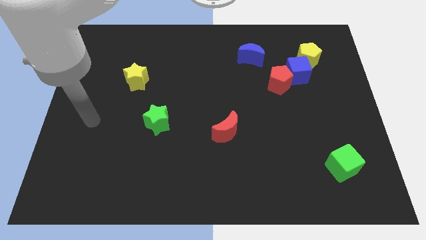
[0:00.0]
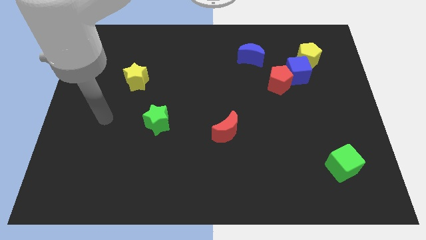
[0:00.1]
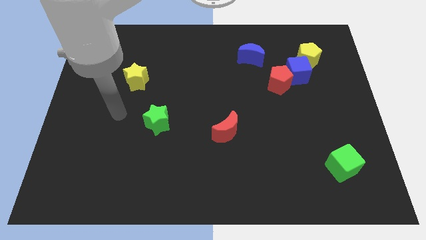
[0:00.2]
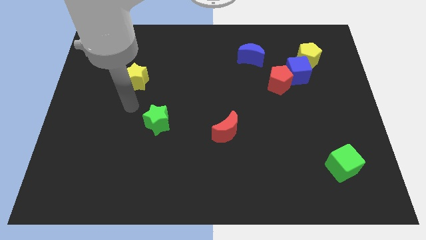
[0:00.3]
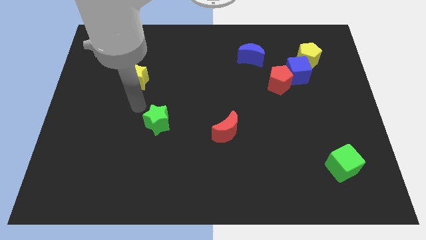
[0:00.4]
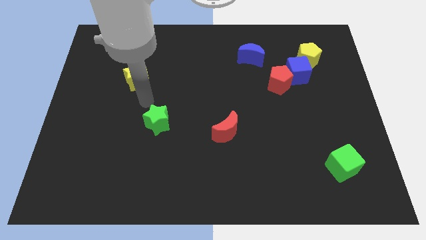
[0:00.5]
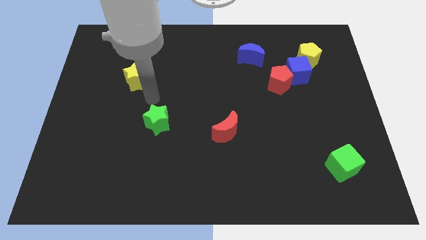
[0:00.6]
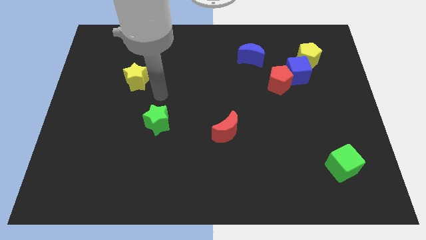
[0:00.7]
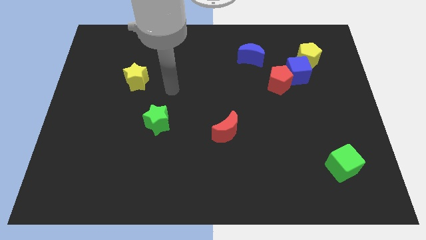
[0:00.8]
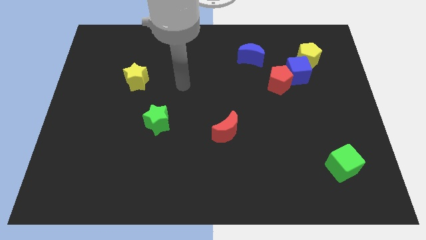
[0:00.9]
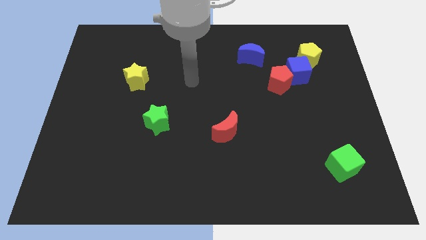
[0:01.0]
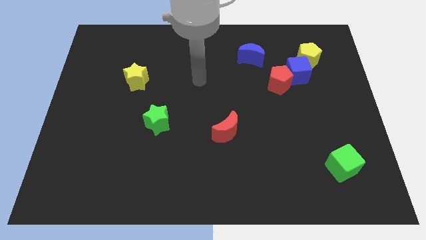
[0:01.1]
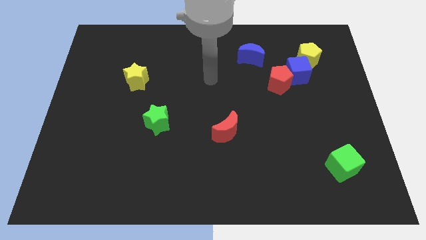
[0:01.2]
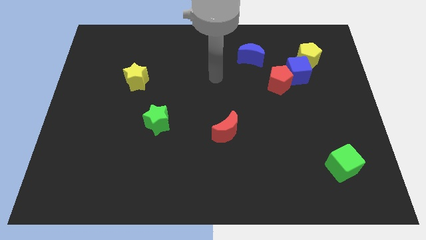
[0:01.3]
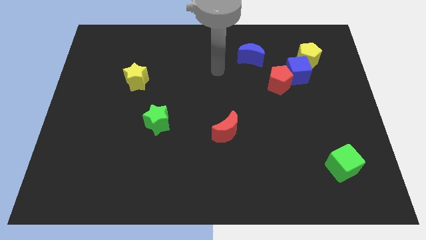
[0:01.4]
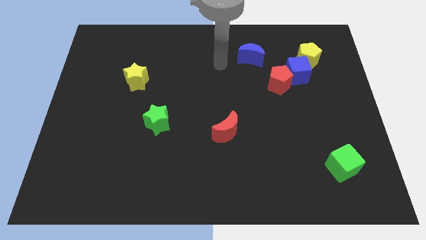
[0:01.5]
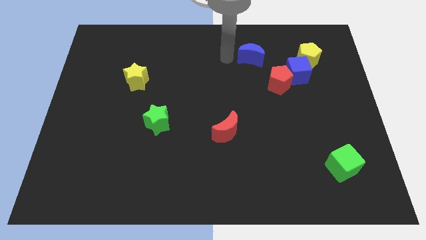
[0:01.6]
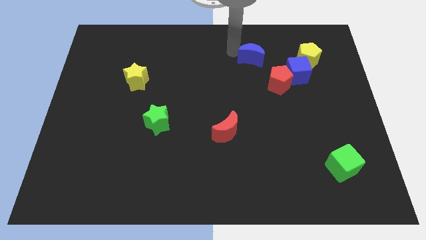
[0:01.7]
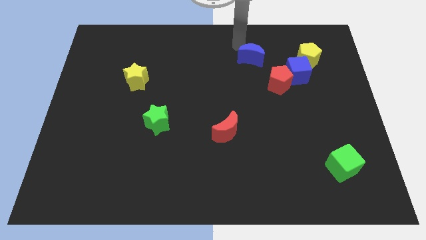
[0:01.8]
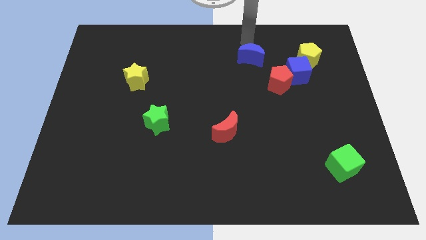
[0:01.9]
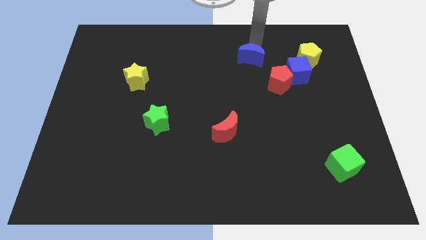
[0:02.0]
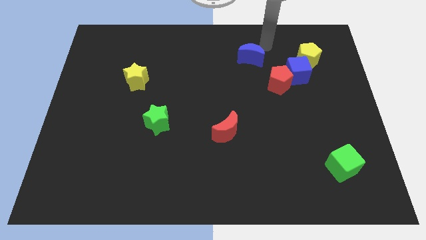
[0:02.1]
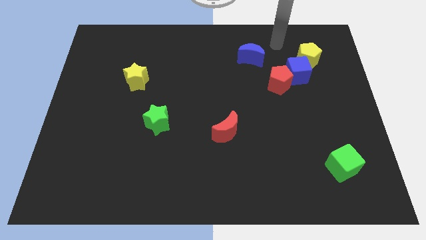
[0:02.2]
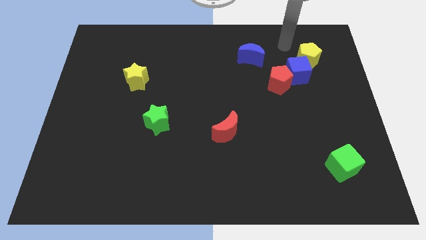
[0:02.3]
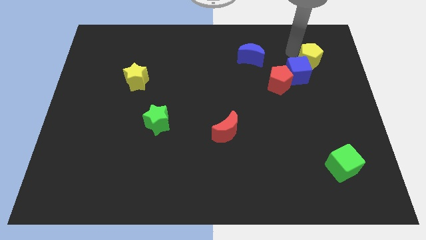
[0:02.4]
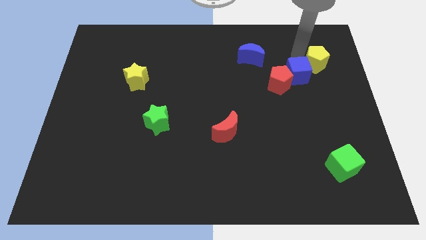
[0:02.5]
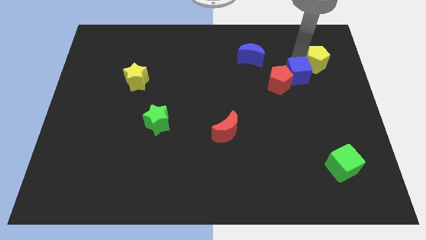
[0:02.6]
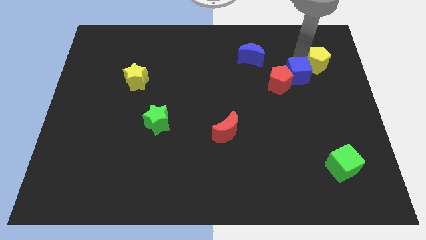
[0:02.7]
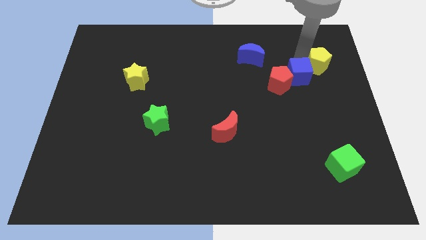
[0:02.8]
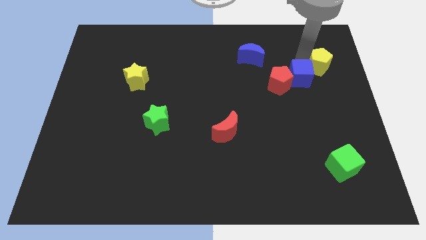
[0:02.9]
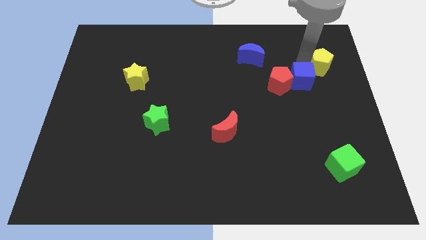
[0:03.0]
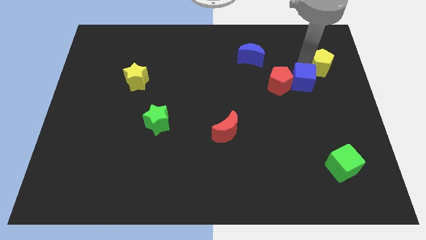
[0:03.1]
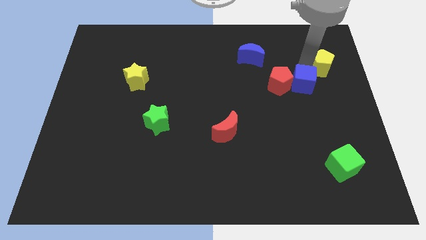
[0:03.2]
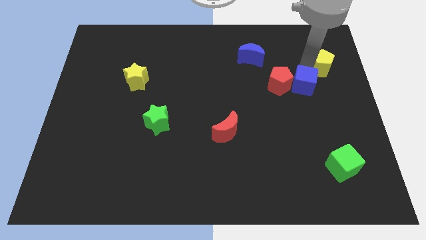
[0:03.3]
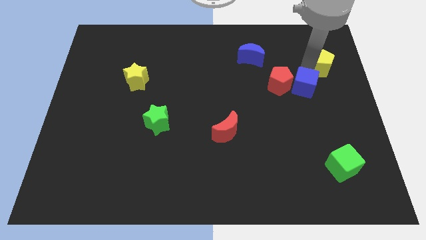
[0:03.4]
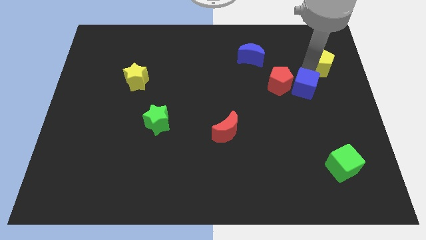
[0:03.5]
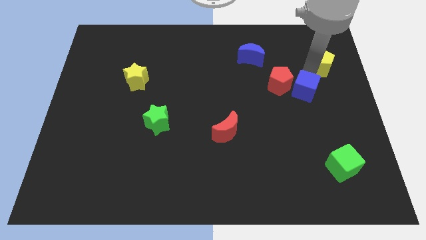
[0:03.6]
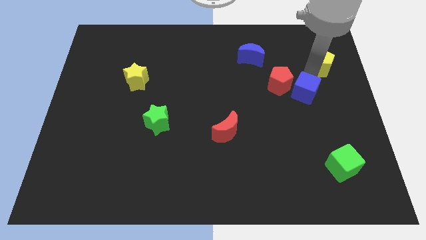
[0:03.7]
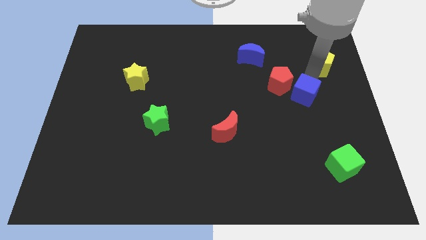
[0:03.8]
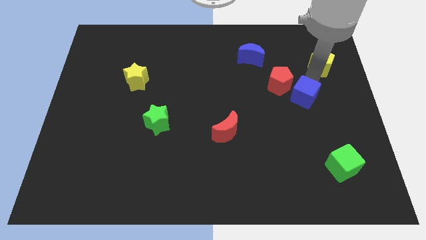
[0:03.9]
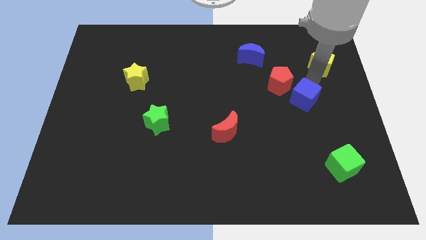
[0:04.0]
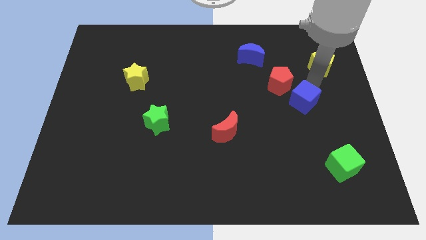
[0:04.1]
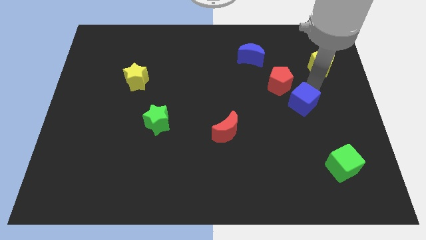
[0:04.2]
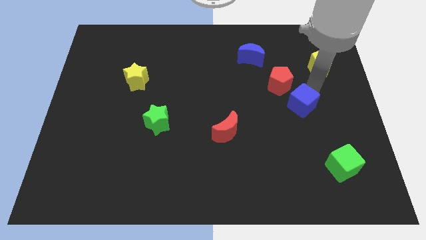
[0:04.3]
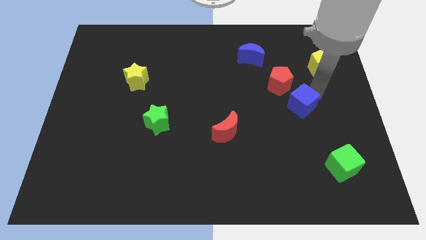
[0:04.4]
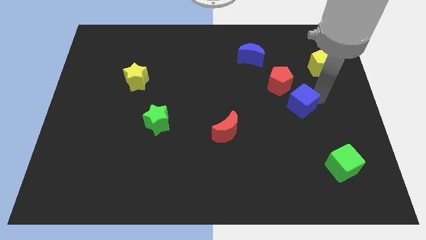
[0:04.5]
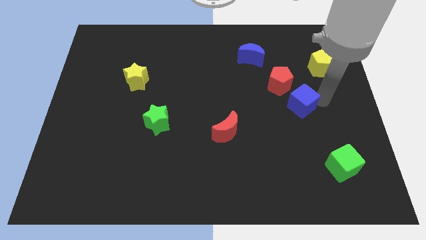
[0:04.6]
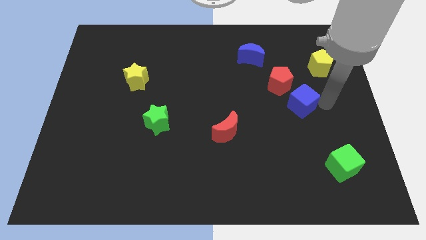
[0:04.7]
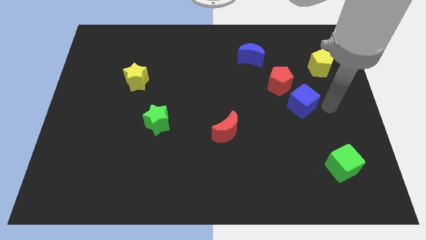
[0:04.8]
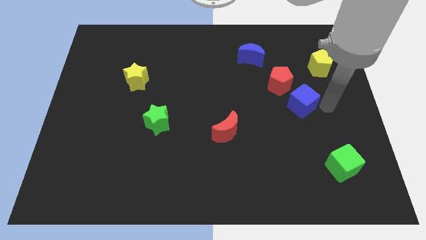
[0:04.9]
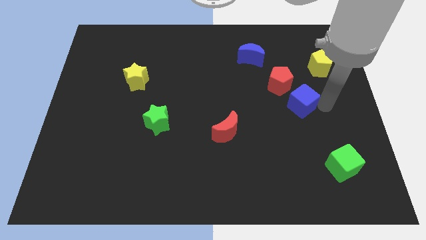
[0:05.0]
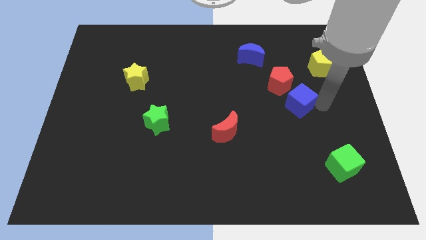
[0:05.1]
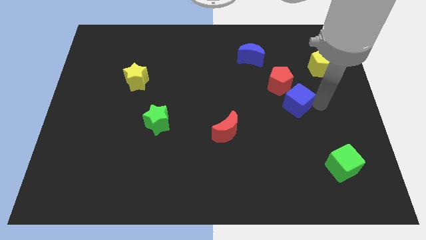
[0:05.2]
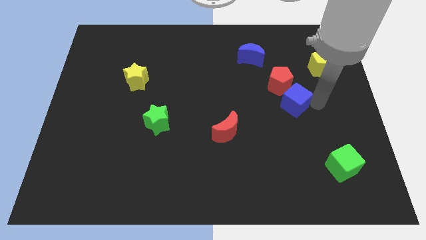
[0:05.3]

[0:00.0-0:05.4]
slide the blue cube somewhat down and to the left diagonally

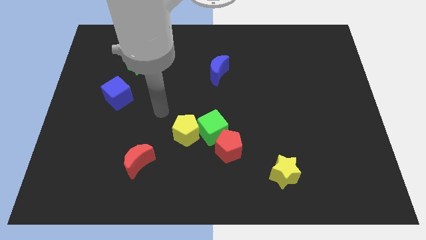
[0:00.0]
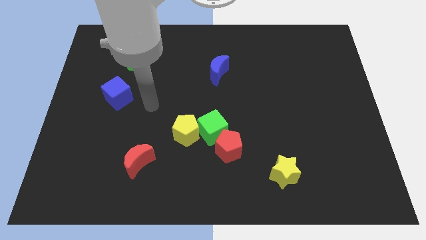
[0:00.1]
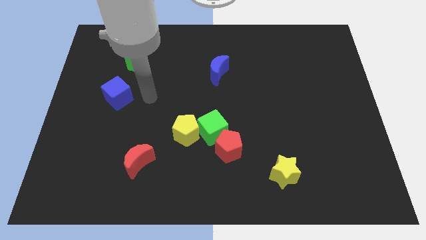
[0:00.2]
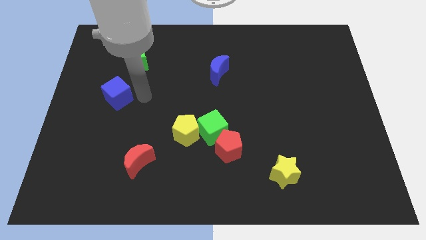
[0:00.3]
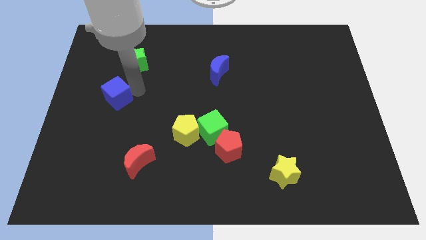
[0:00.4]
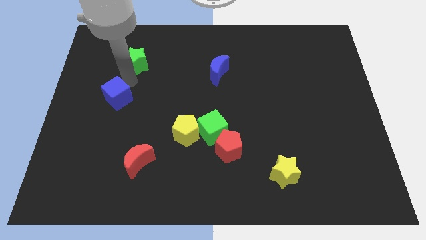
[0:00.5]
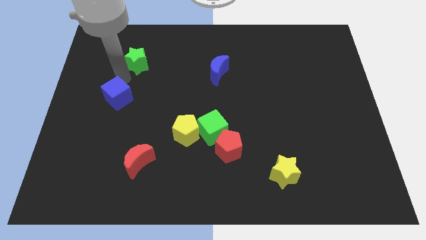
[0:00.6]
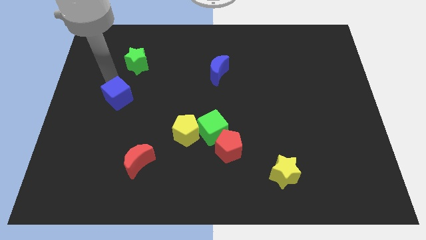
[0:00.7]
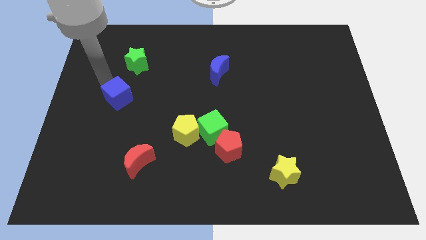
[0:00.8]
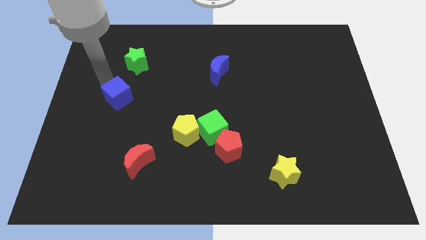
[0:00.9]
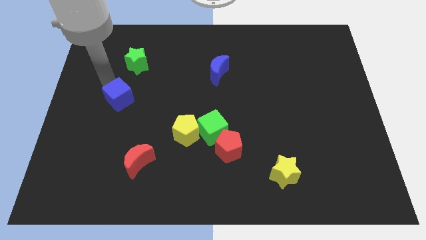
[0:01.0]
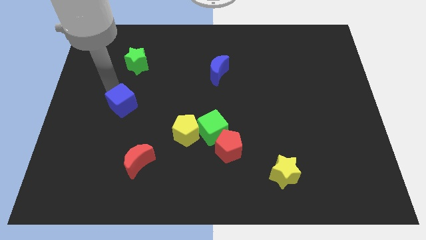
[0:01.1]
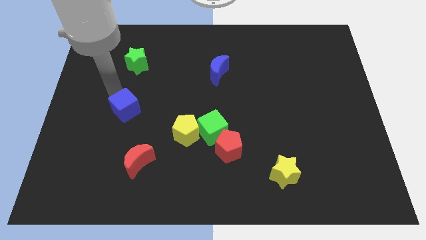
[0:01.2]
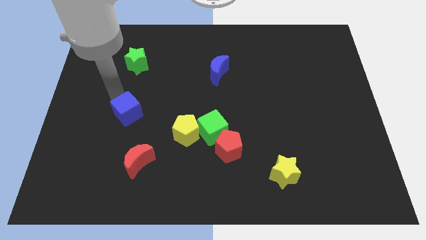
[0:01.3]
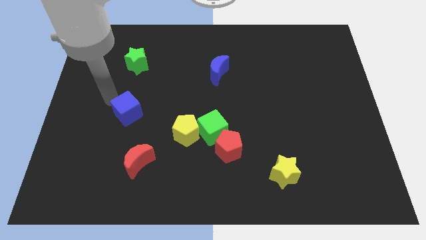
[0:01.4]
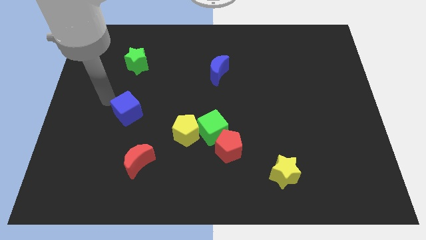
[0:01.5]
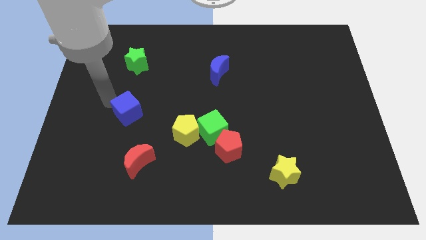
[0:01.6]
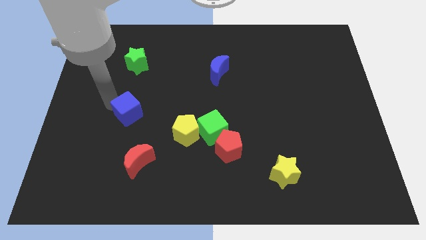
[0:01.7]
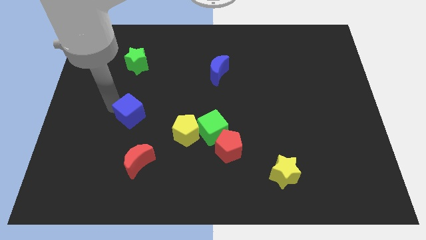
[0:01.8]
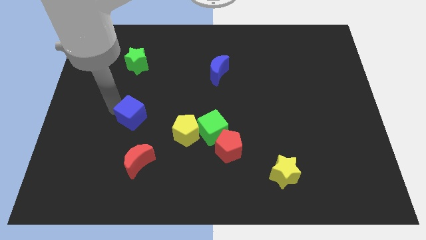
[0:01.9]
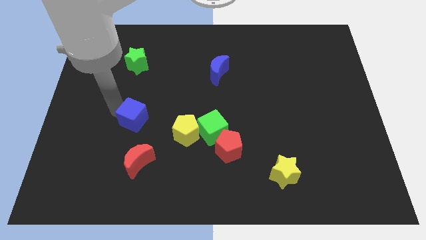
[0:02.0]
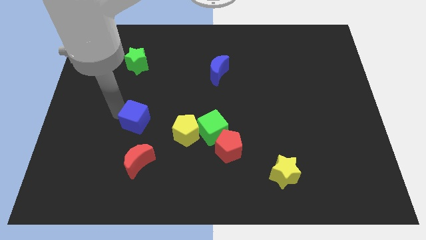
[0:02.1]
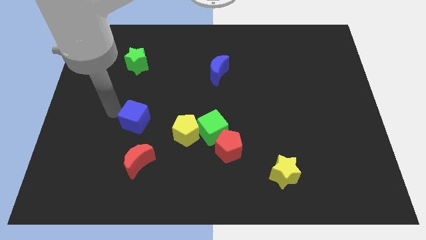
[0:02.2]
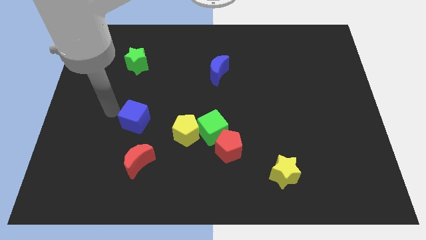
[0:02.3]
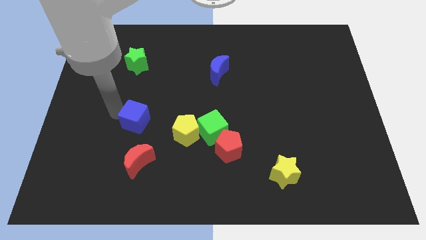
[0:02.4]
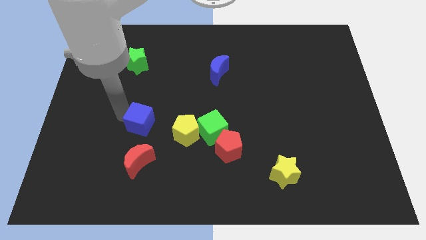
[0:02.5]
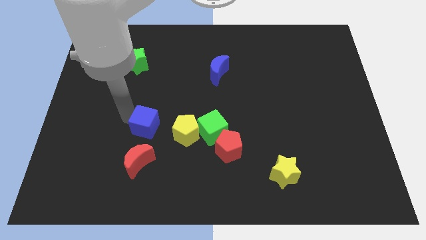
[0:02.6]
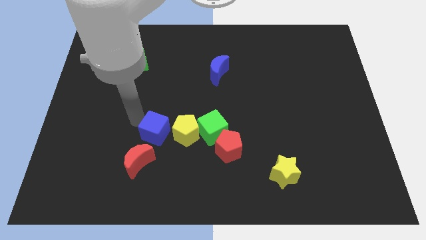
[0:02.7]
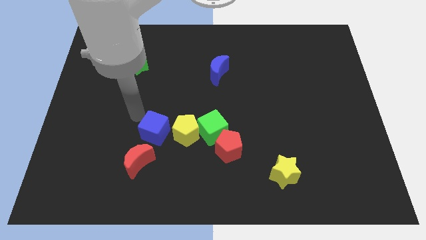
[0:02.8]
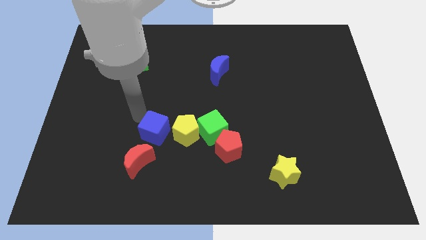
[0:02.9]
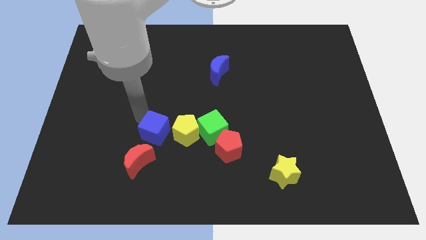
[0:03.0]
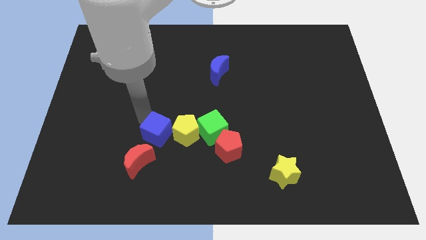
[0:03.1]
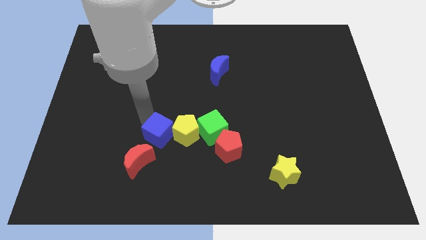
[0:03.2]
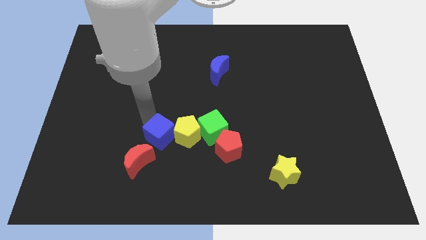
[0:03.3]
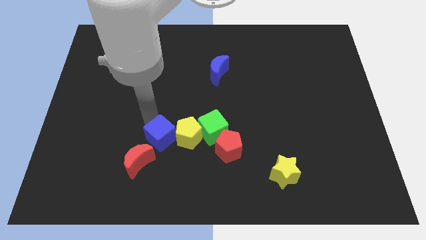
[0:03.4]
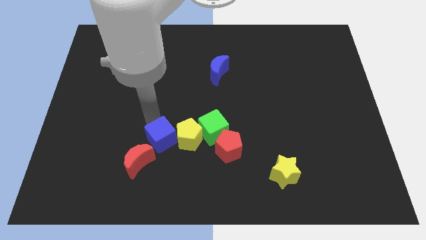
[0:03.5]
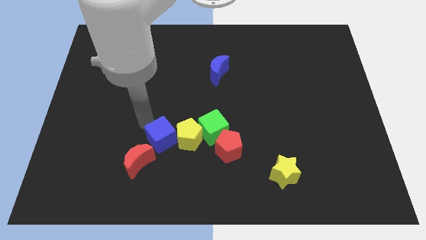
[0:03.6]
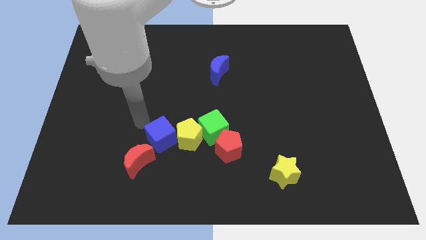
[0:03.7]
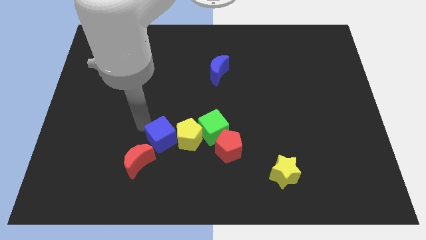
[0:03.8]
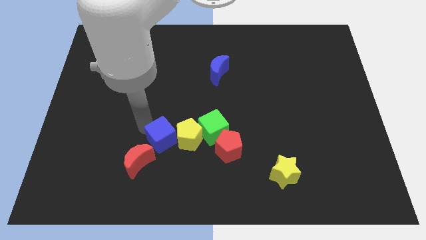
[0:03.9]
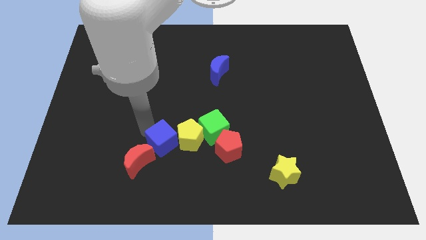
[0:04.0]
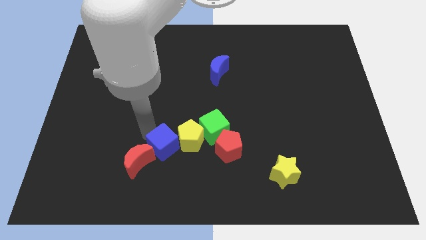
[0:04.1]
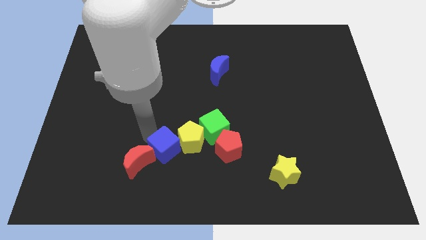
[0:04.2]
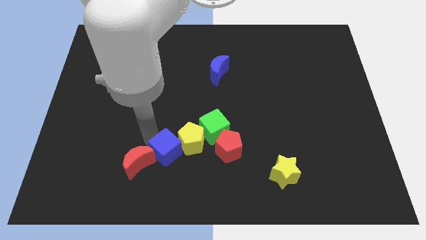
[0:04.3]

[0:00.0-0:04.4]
push the blue cube diagonally down and to the right
